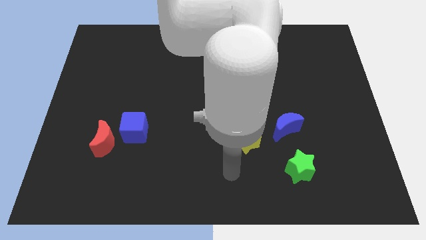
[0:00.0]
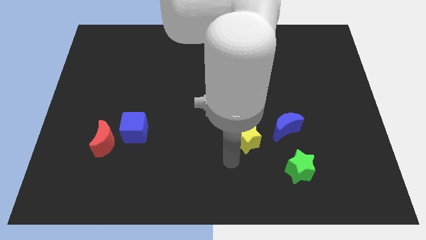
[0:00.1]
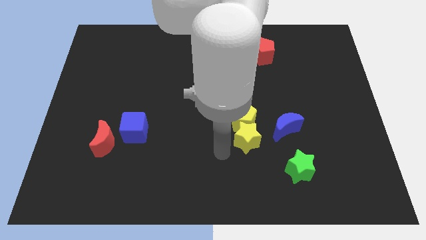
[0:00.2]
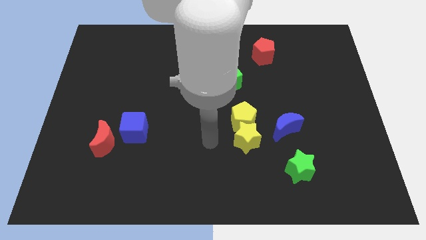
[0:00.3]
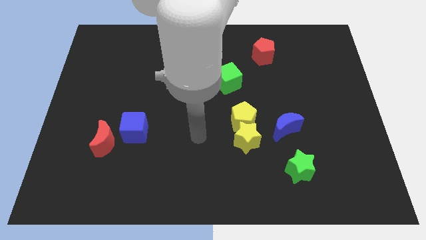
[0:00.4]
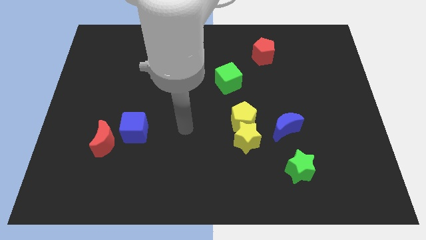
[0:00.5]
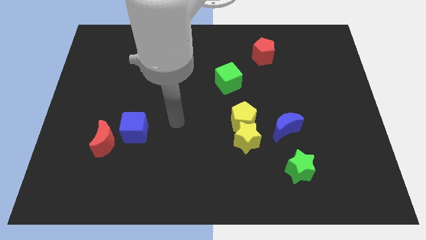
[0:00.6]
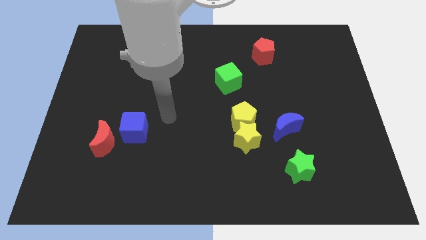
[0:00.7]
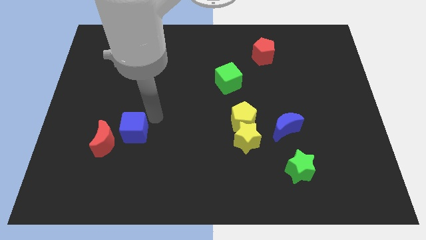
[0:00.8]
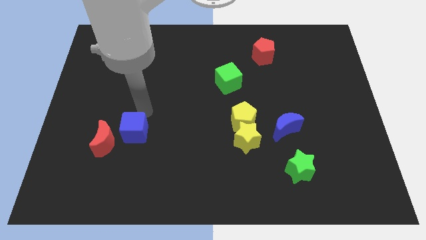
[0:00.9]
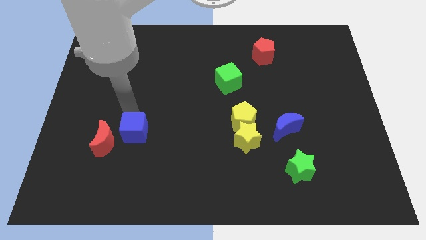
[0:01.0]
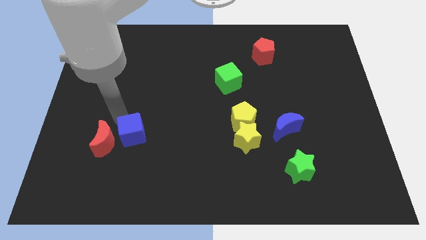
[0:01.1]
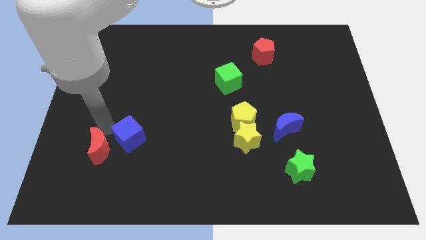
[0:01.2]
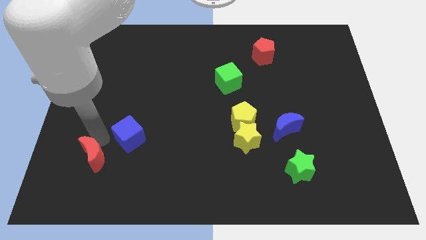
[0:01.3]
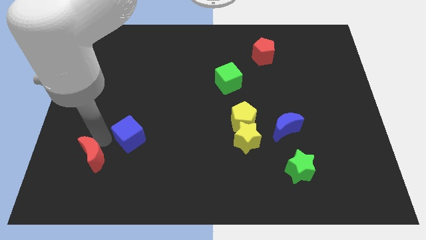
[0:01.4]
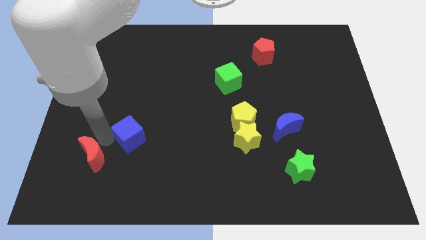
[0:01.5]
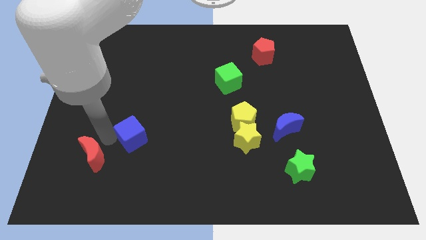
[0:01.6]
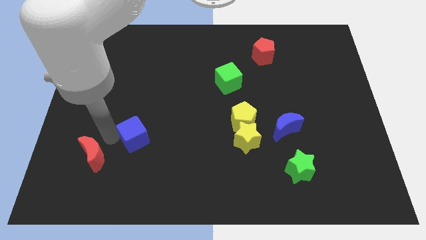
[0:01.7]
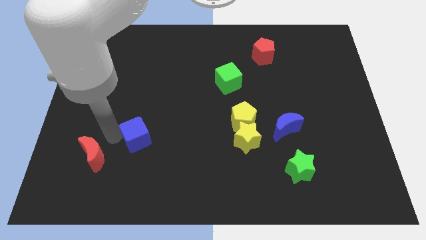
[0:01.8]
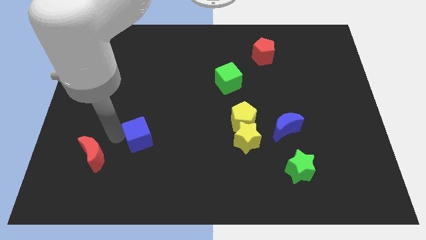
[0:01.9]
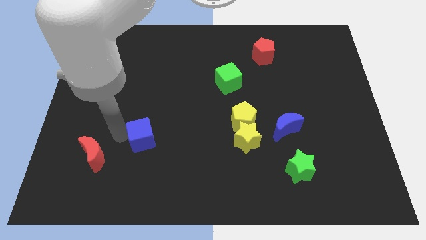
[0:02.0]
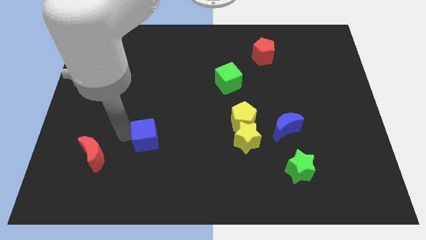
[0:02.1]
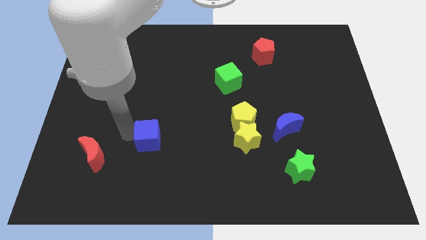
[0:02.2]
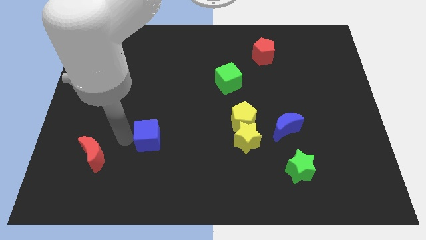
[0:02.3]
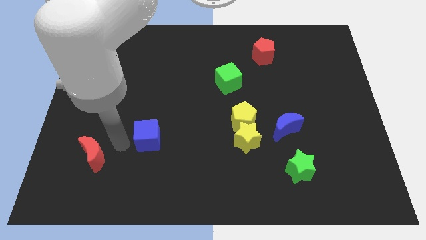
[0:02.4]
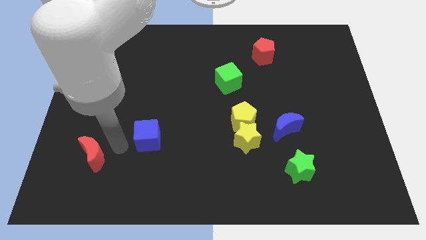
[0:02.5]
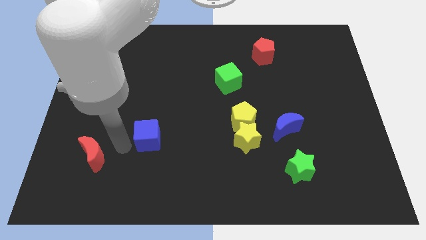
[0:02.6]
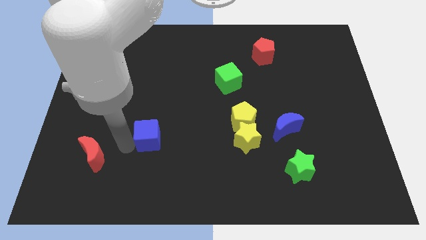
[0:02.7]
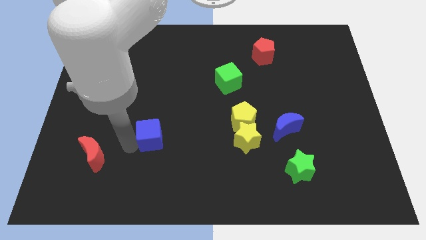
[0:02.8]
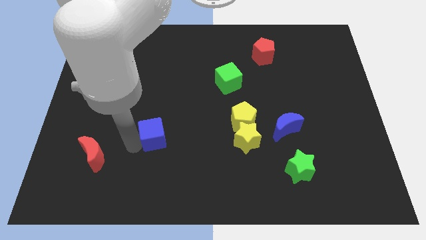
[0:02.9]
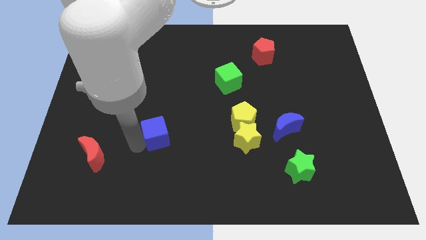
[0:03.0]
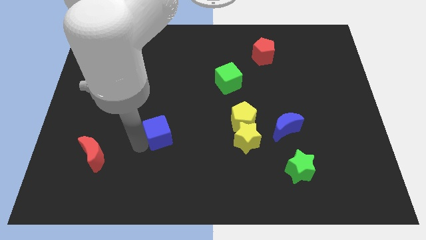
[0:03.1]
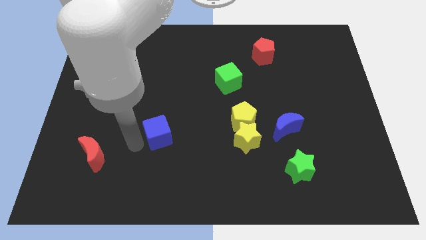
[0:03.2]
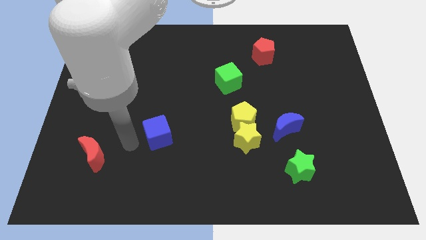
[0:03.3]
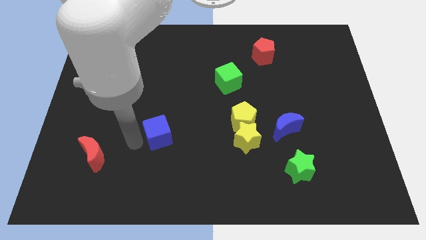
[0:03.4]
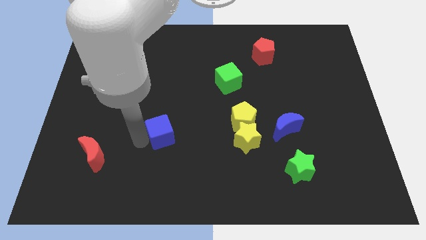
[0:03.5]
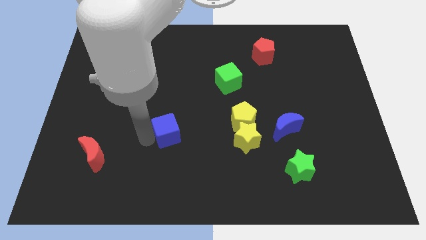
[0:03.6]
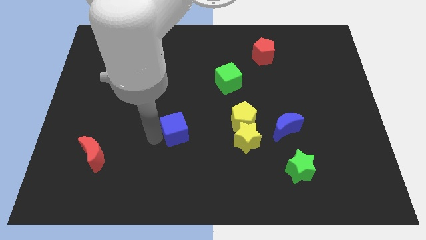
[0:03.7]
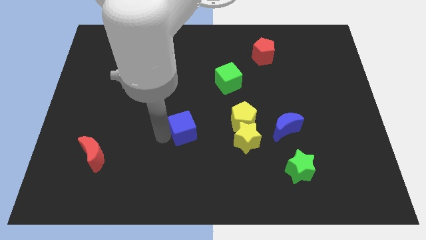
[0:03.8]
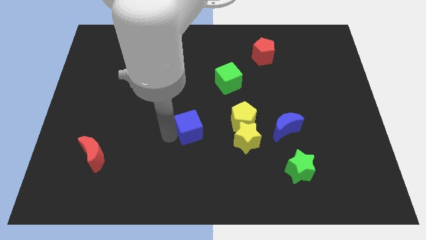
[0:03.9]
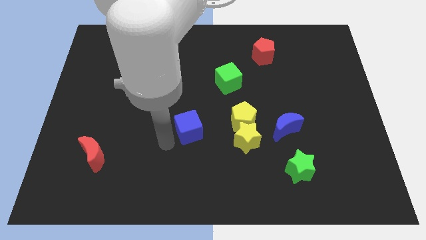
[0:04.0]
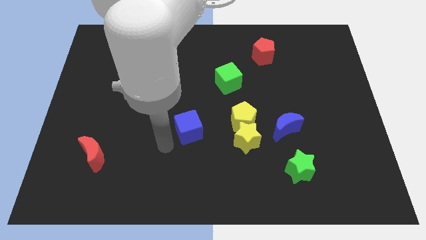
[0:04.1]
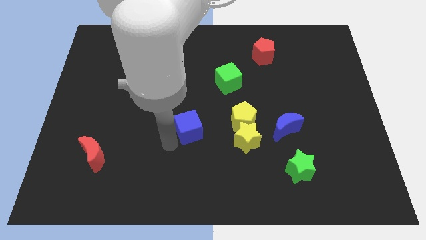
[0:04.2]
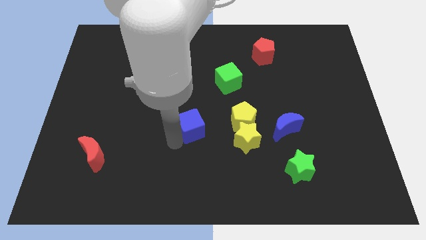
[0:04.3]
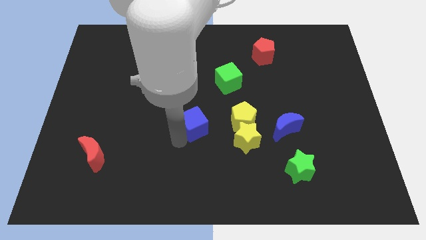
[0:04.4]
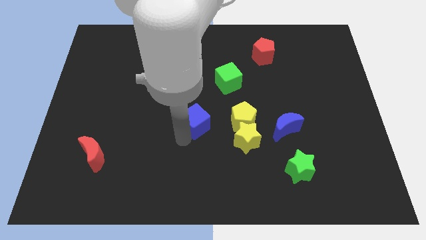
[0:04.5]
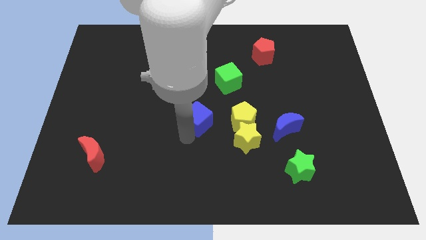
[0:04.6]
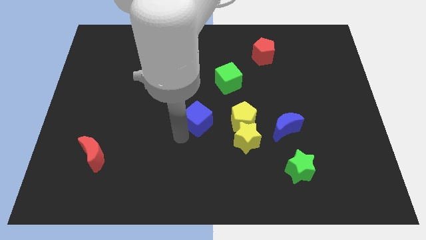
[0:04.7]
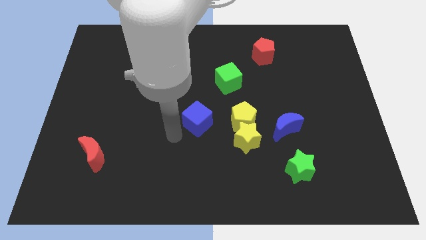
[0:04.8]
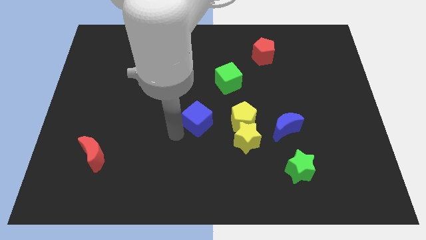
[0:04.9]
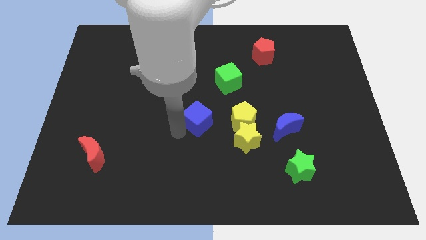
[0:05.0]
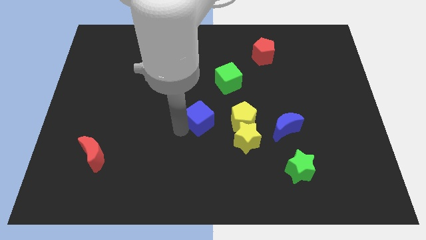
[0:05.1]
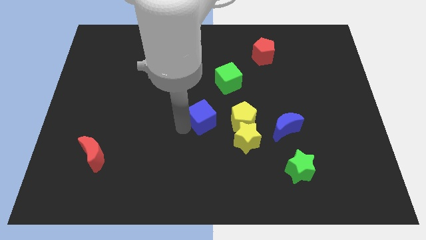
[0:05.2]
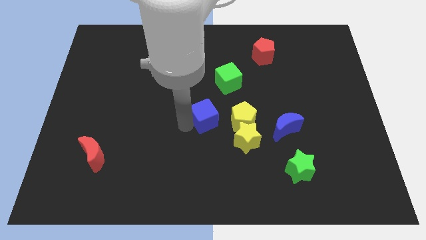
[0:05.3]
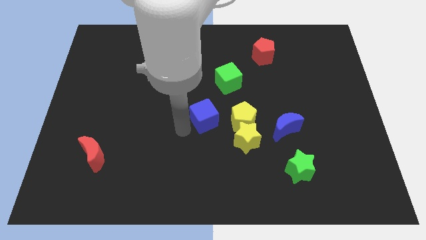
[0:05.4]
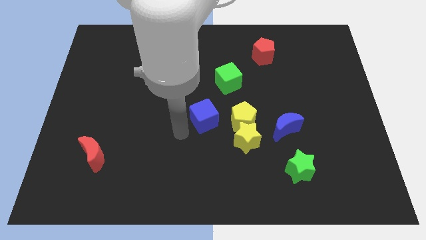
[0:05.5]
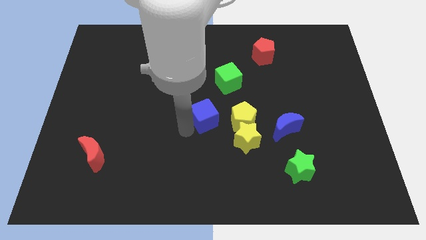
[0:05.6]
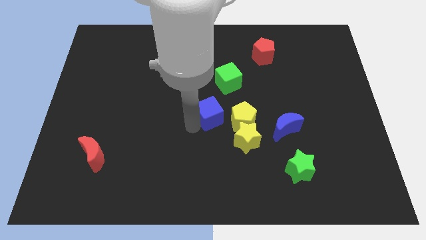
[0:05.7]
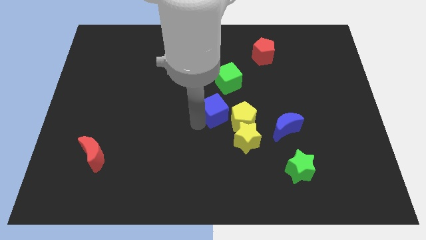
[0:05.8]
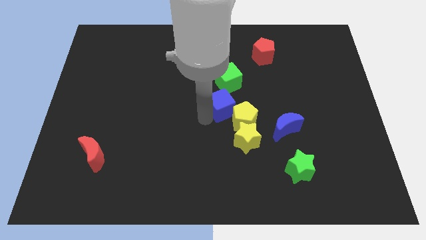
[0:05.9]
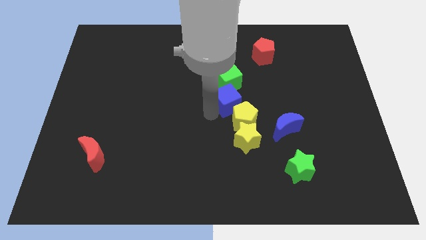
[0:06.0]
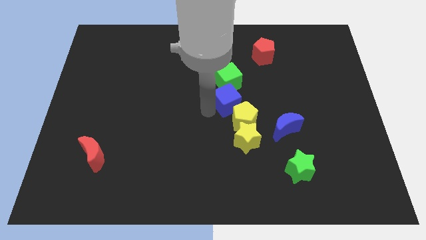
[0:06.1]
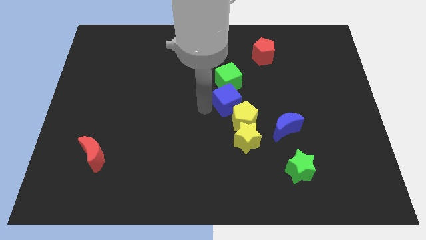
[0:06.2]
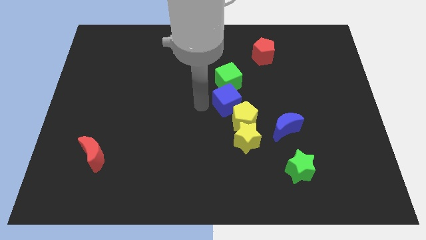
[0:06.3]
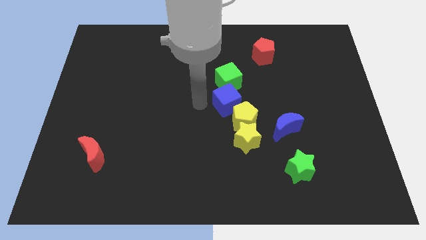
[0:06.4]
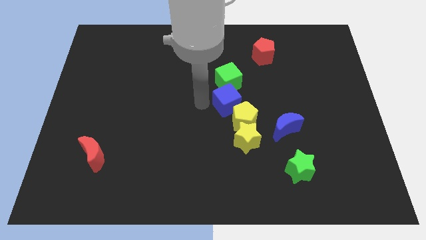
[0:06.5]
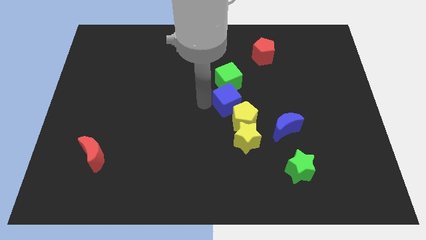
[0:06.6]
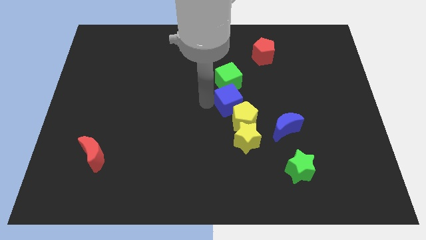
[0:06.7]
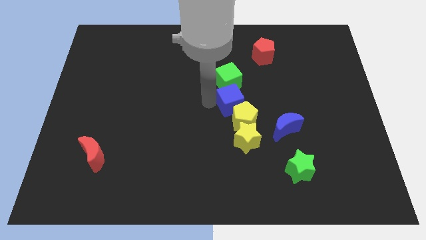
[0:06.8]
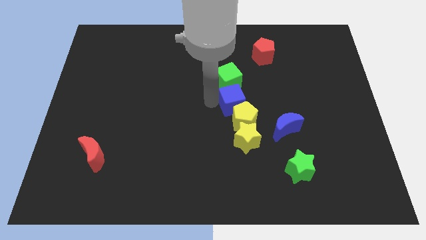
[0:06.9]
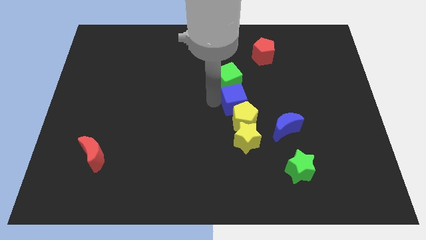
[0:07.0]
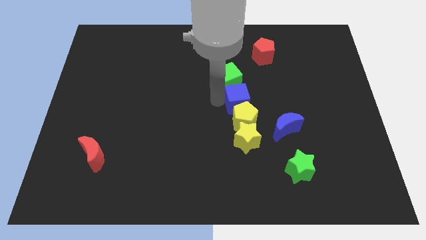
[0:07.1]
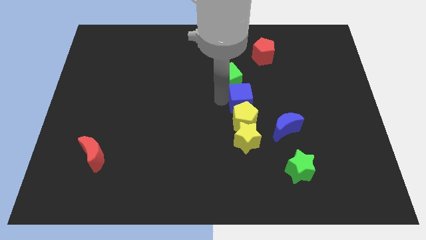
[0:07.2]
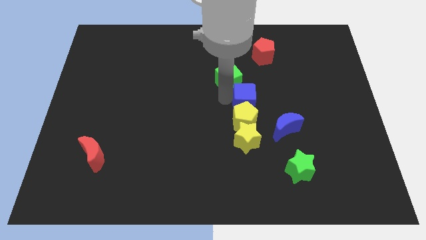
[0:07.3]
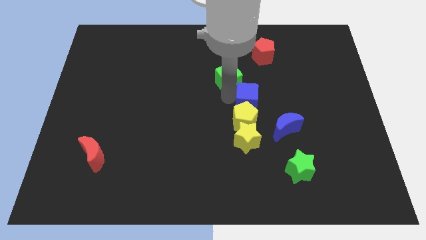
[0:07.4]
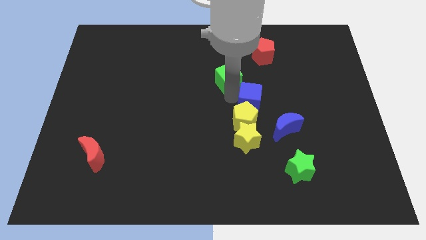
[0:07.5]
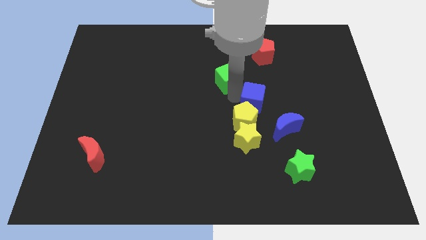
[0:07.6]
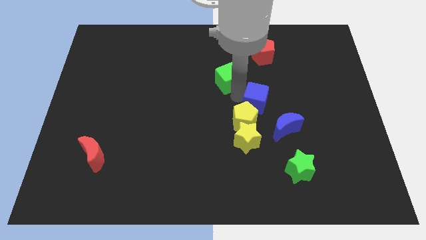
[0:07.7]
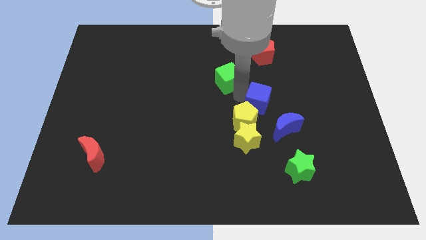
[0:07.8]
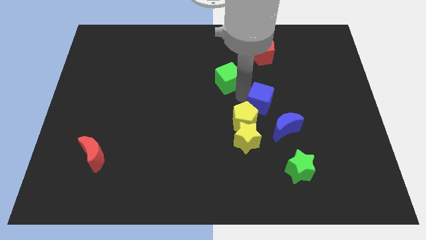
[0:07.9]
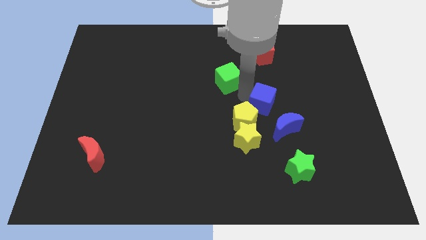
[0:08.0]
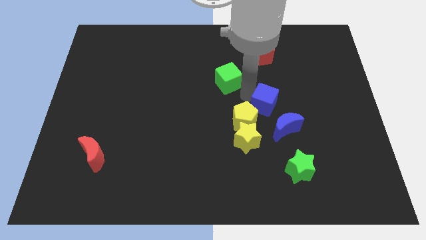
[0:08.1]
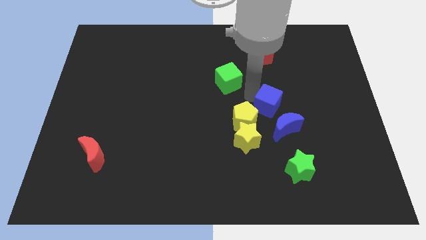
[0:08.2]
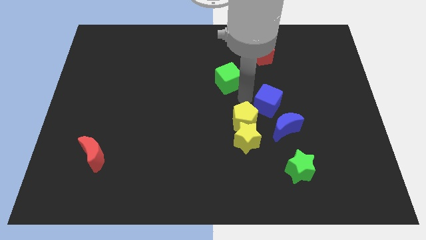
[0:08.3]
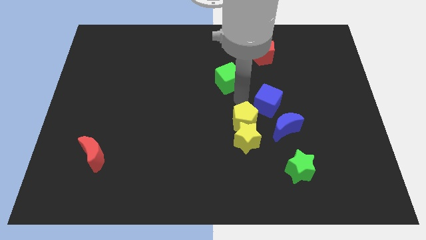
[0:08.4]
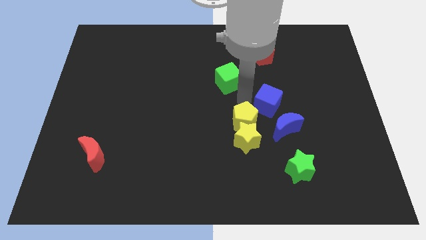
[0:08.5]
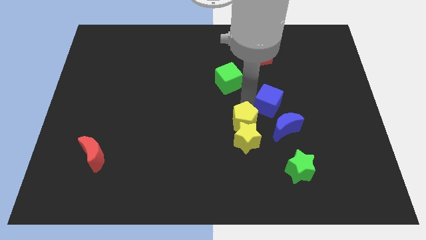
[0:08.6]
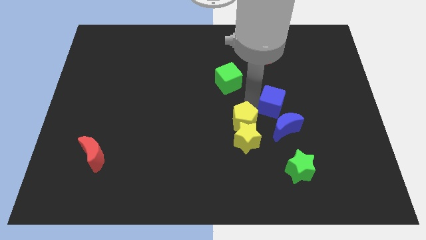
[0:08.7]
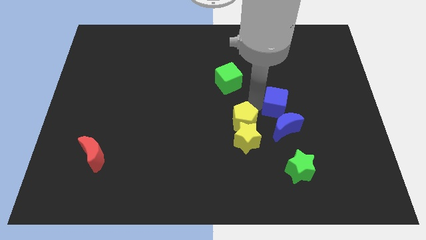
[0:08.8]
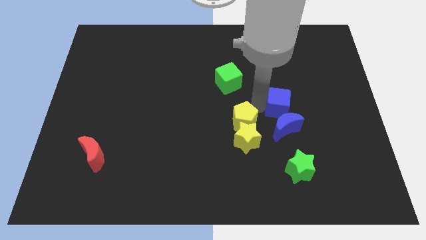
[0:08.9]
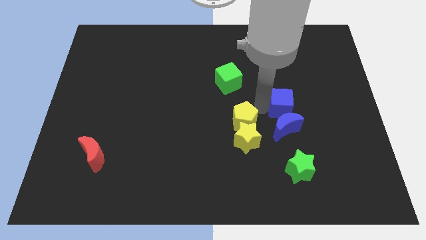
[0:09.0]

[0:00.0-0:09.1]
put the blue cube to the top right of the blue moon
